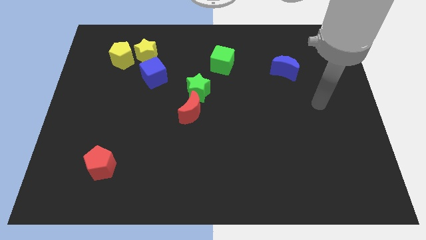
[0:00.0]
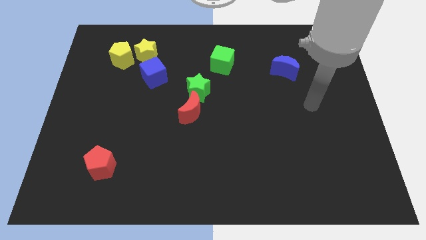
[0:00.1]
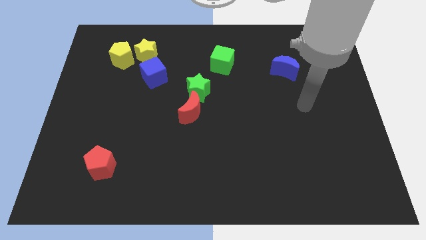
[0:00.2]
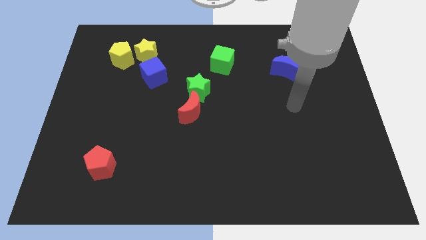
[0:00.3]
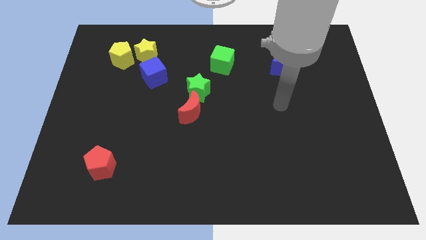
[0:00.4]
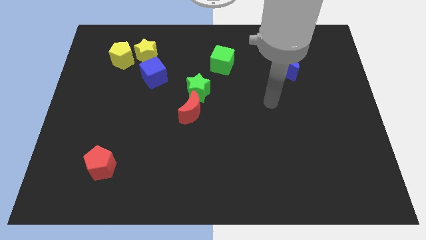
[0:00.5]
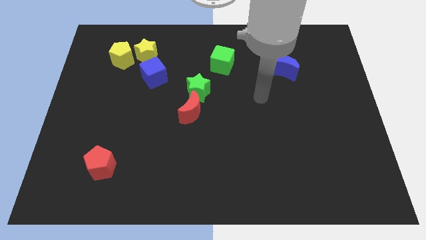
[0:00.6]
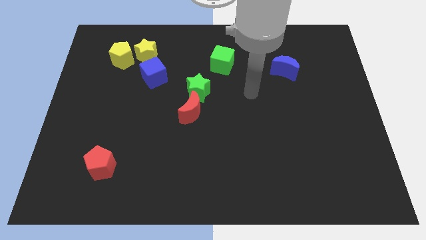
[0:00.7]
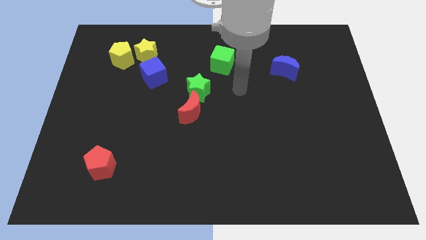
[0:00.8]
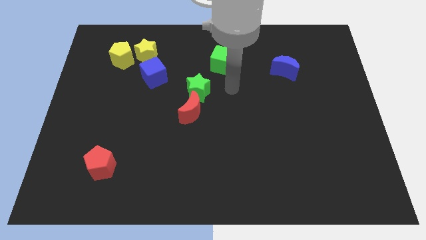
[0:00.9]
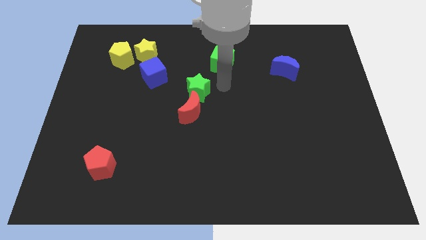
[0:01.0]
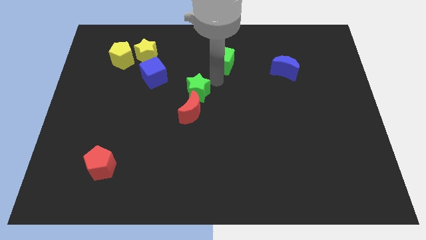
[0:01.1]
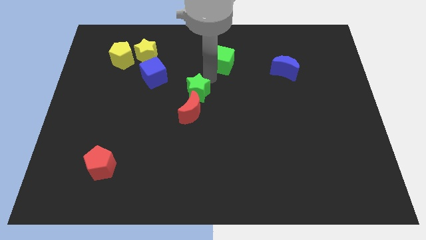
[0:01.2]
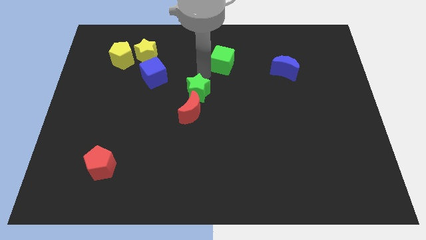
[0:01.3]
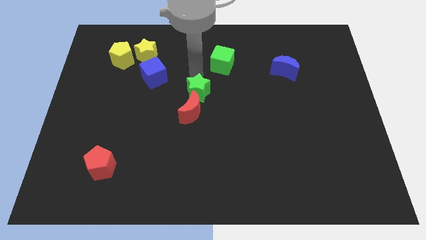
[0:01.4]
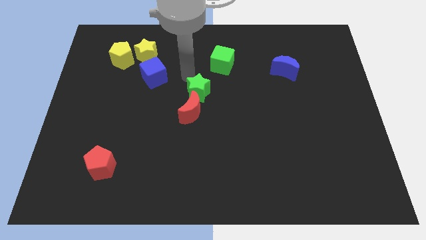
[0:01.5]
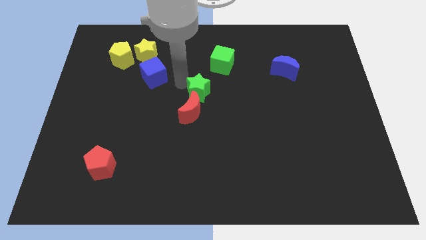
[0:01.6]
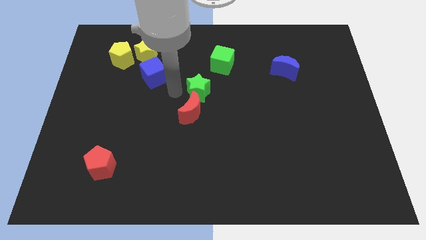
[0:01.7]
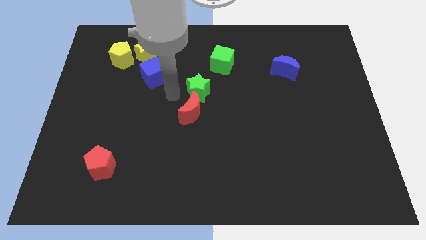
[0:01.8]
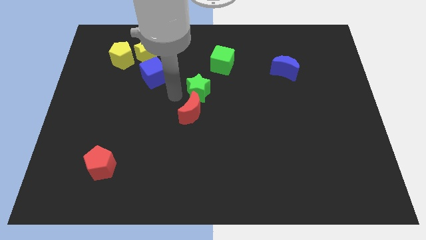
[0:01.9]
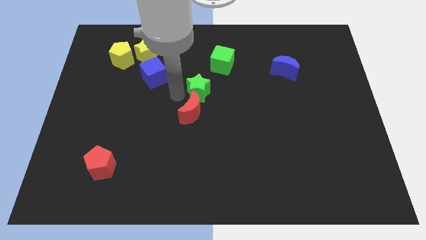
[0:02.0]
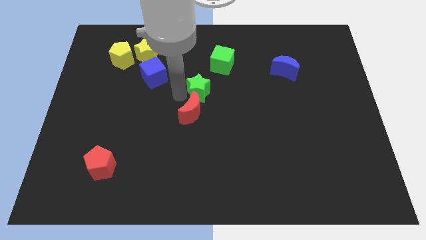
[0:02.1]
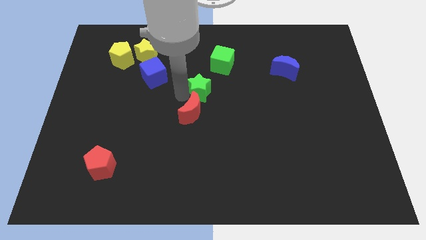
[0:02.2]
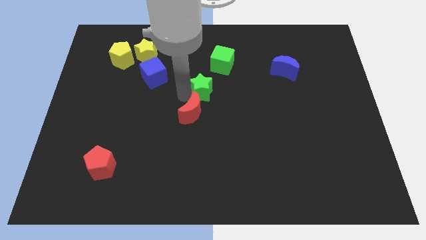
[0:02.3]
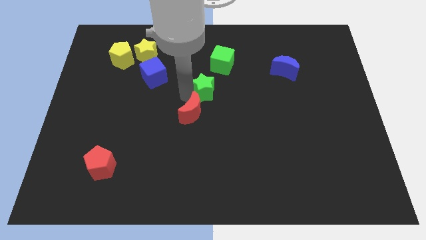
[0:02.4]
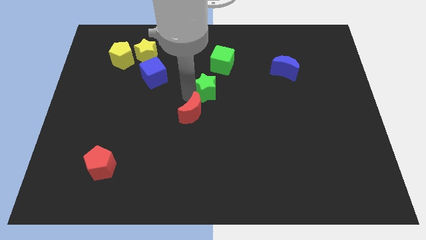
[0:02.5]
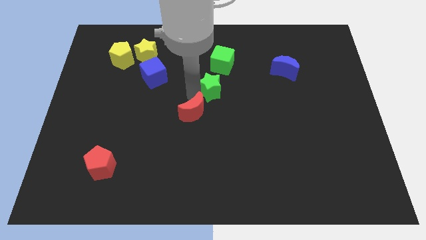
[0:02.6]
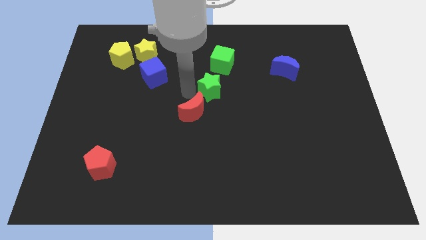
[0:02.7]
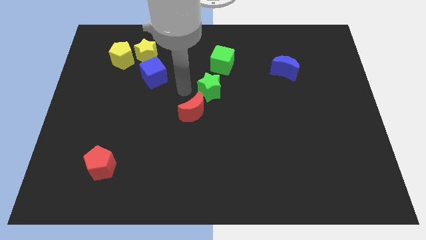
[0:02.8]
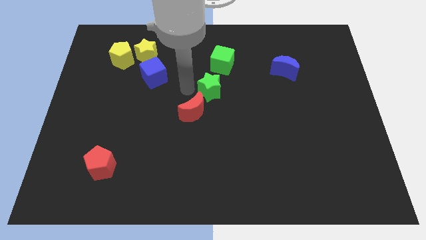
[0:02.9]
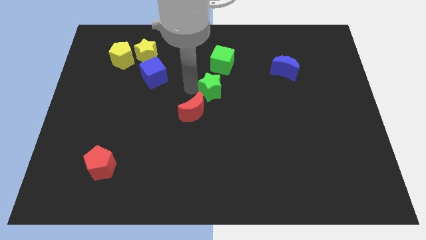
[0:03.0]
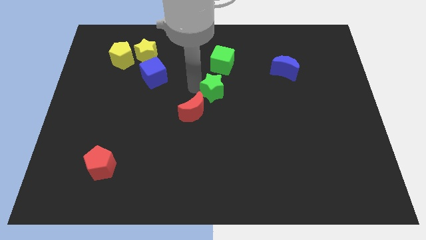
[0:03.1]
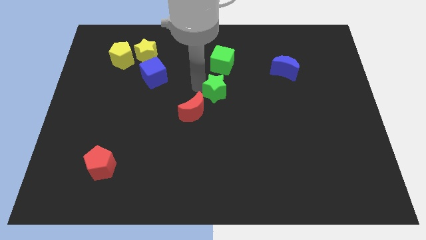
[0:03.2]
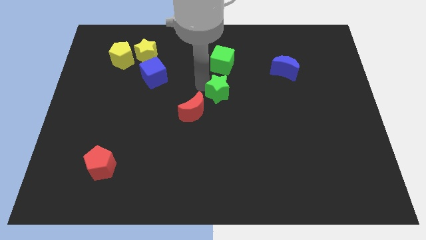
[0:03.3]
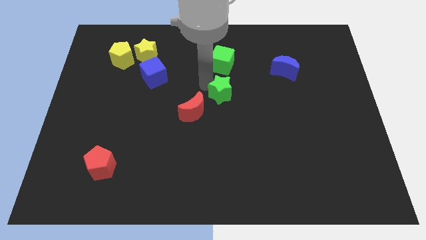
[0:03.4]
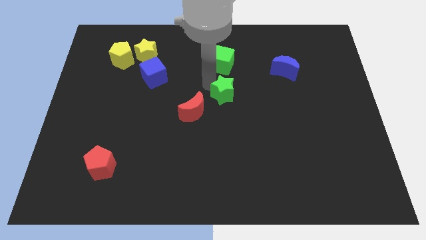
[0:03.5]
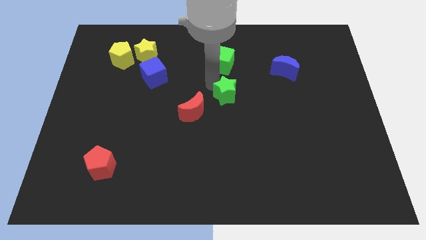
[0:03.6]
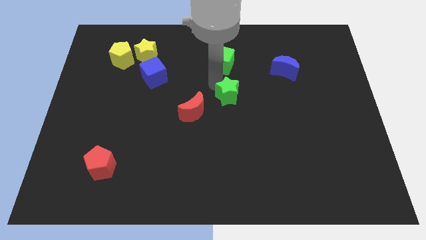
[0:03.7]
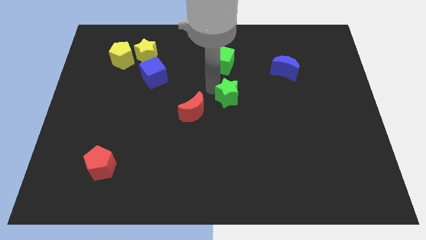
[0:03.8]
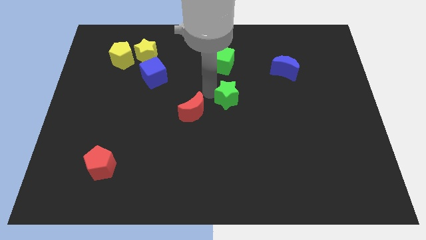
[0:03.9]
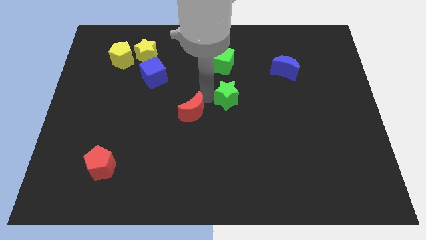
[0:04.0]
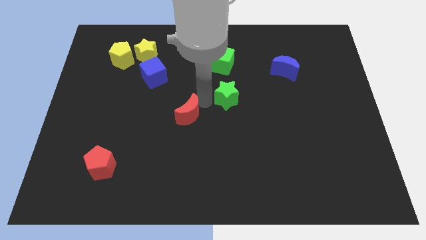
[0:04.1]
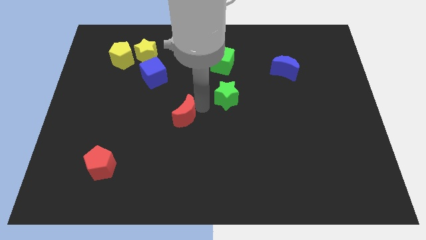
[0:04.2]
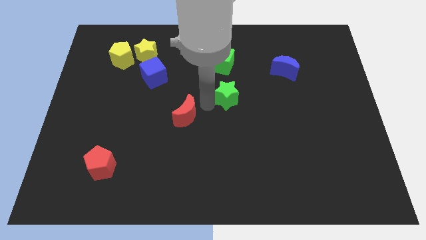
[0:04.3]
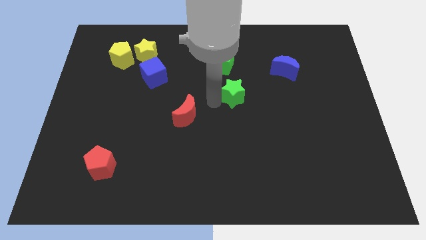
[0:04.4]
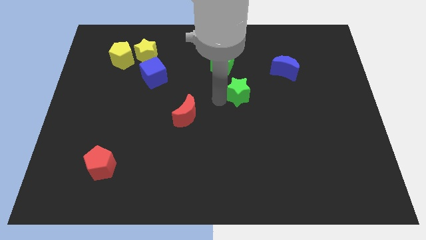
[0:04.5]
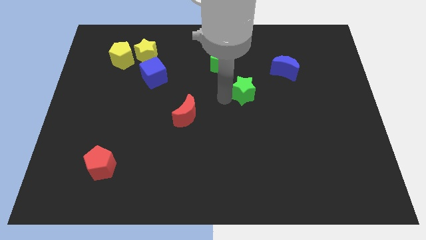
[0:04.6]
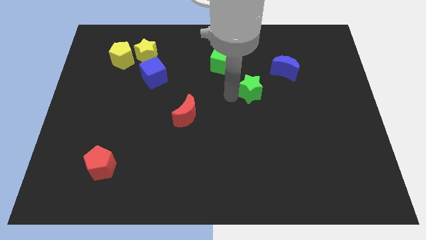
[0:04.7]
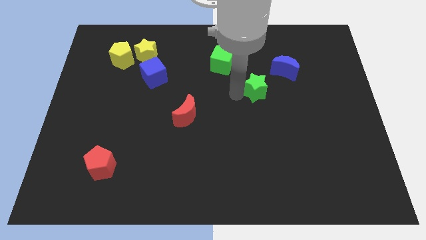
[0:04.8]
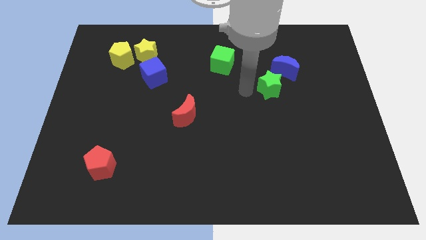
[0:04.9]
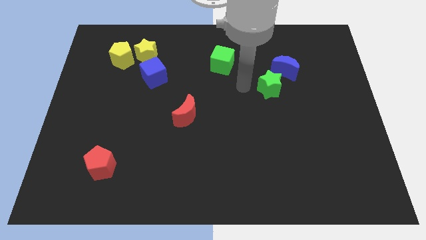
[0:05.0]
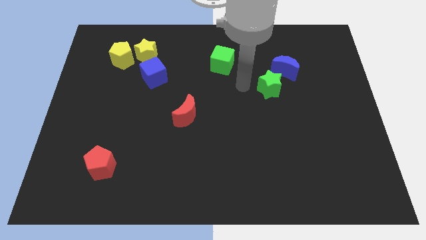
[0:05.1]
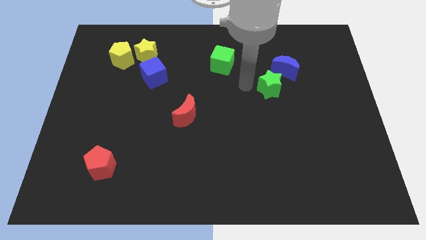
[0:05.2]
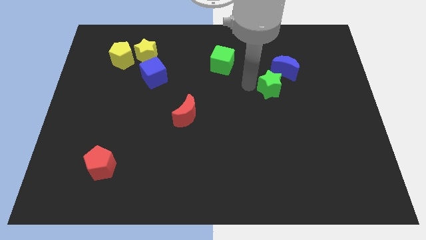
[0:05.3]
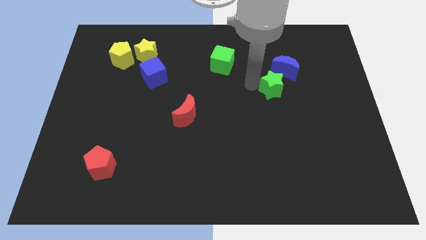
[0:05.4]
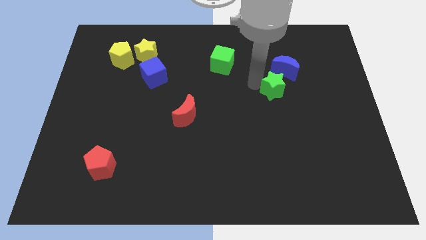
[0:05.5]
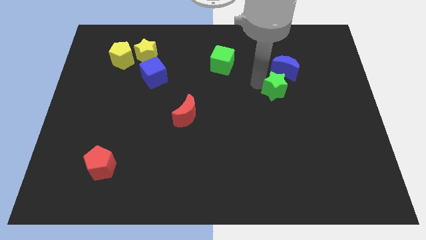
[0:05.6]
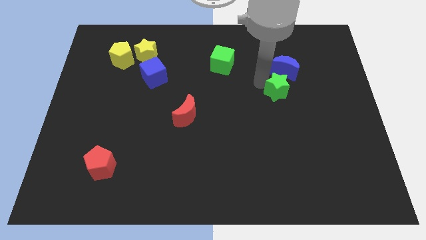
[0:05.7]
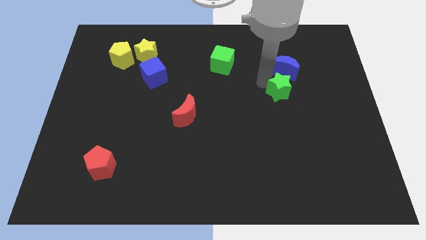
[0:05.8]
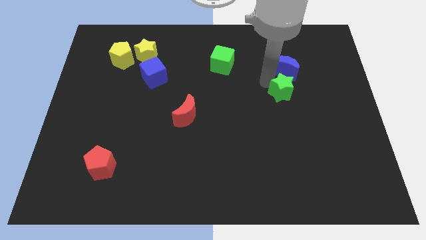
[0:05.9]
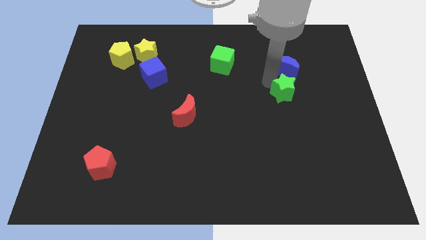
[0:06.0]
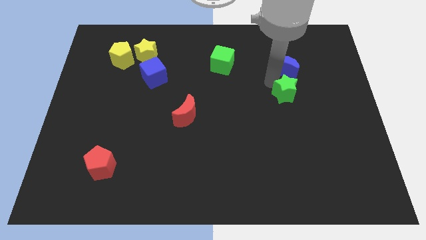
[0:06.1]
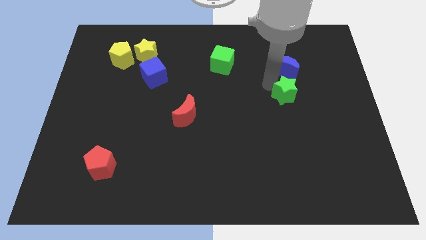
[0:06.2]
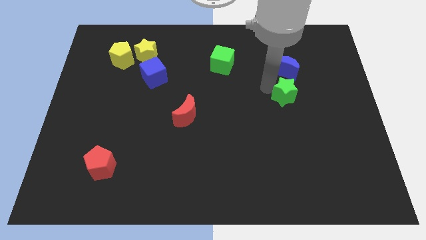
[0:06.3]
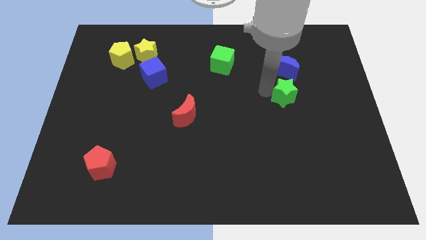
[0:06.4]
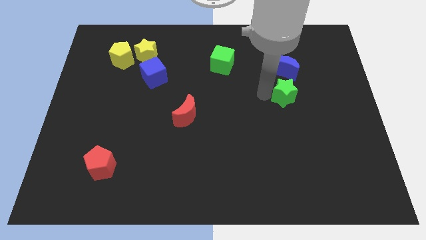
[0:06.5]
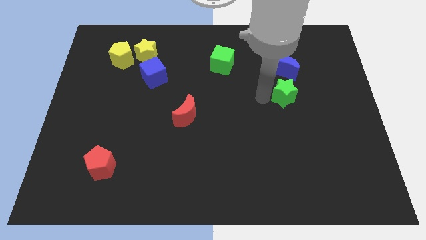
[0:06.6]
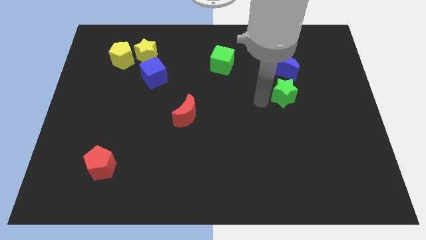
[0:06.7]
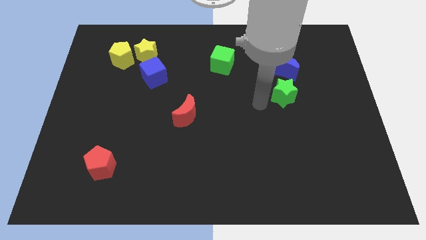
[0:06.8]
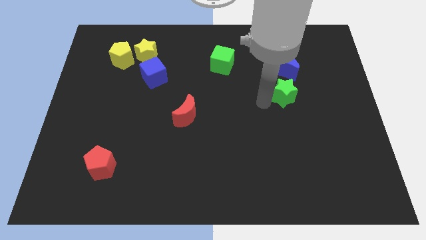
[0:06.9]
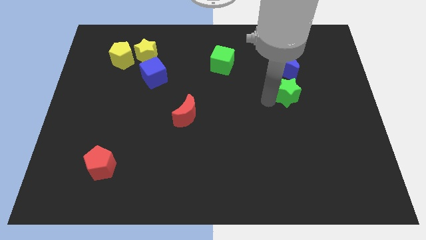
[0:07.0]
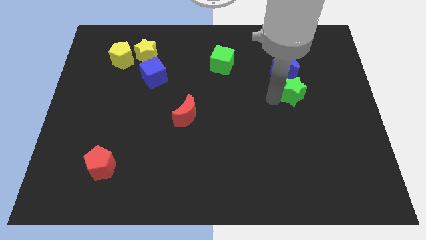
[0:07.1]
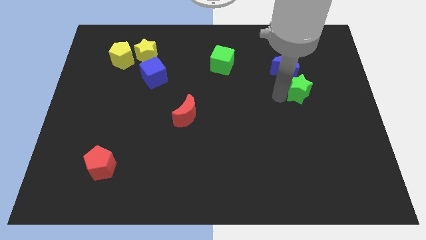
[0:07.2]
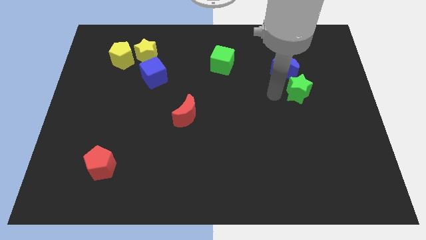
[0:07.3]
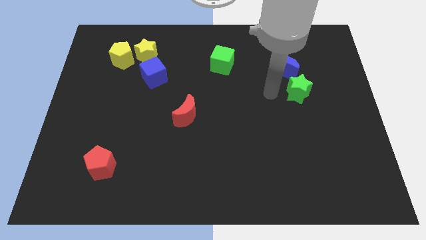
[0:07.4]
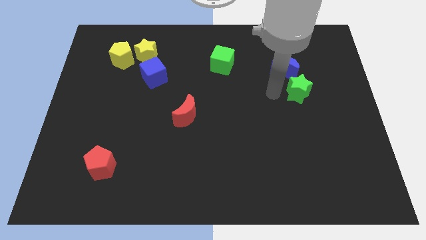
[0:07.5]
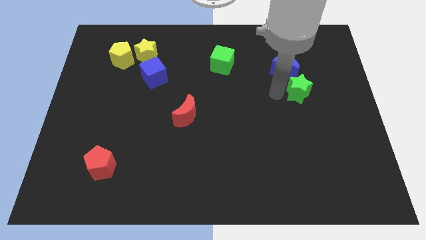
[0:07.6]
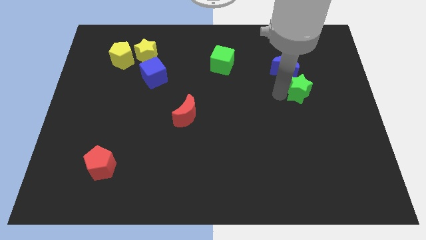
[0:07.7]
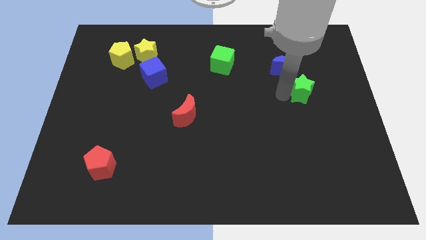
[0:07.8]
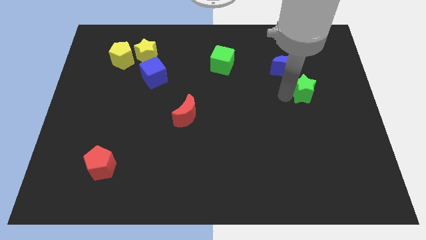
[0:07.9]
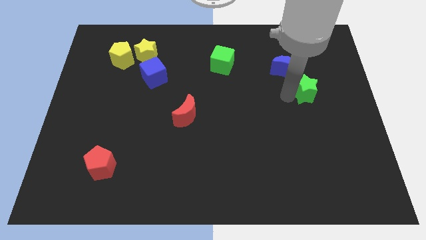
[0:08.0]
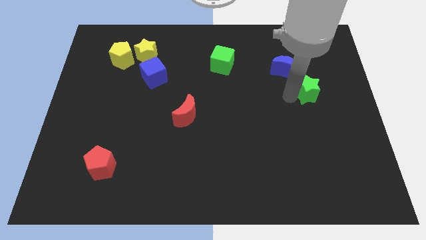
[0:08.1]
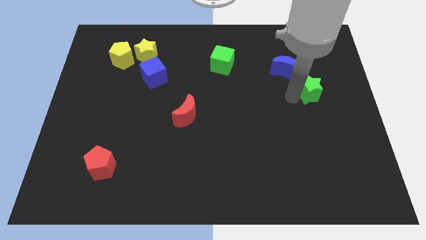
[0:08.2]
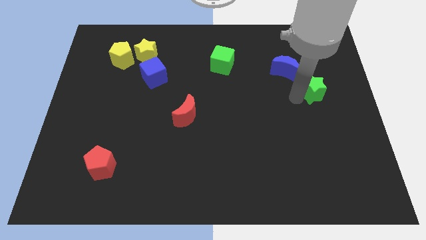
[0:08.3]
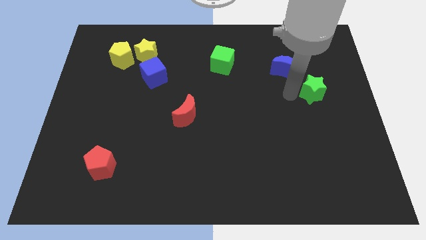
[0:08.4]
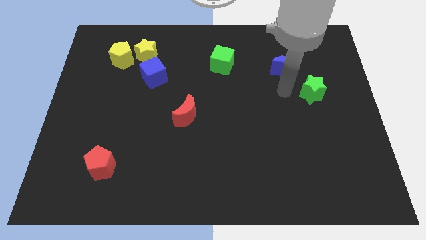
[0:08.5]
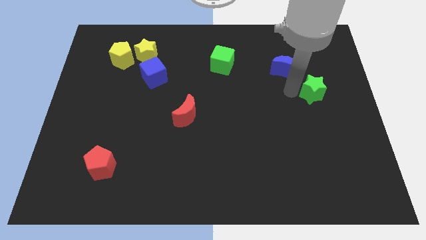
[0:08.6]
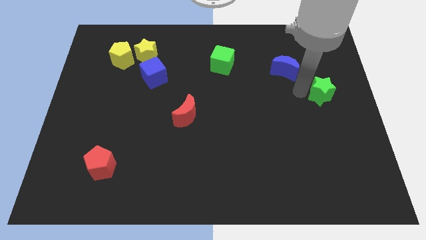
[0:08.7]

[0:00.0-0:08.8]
put the green star to the right side of the board
